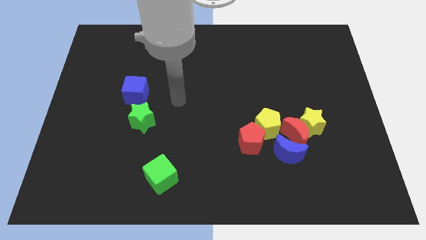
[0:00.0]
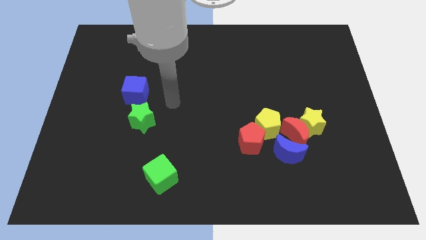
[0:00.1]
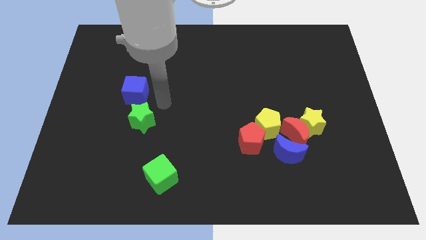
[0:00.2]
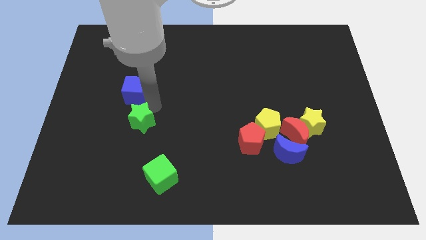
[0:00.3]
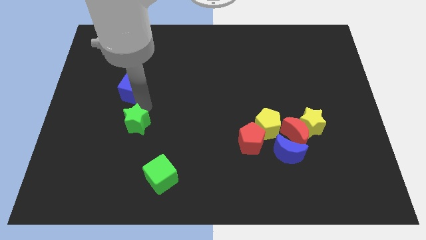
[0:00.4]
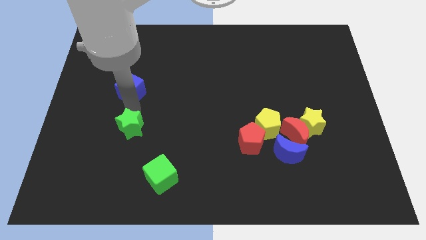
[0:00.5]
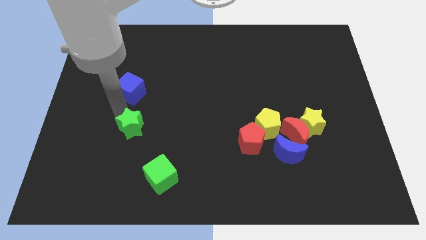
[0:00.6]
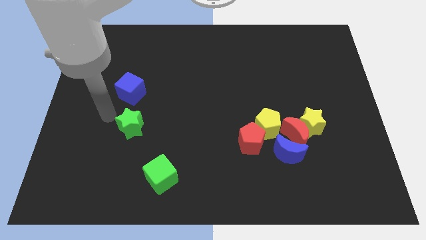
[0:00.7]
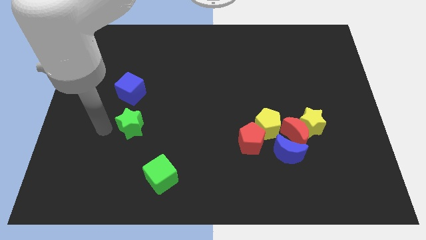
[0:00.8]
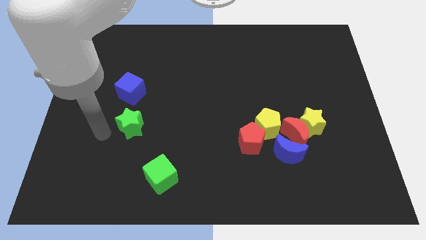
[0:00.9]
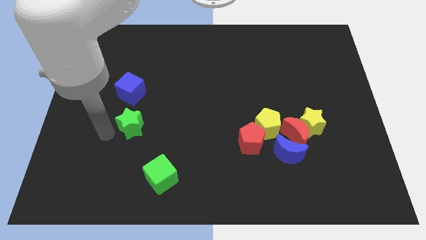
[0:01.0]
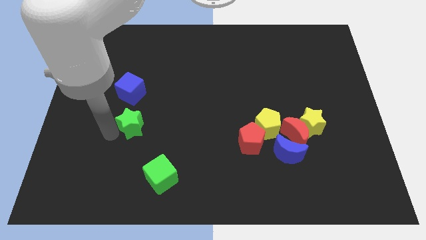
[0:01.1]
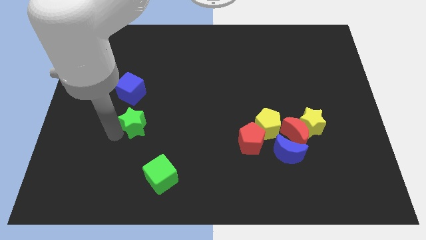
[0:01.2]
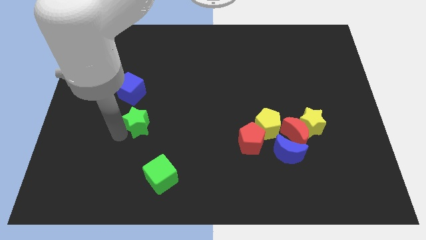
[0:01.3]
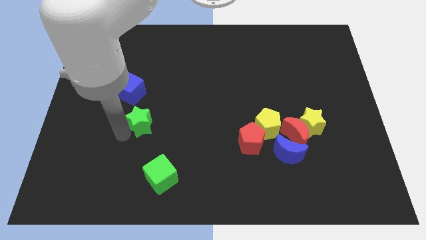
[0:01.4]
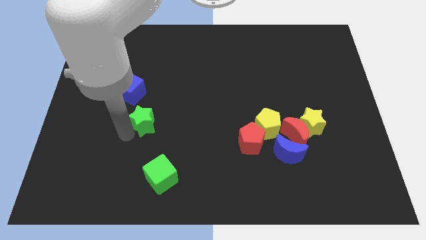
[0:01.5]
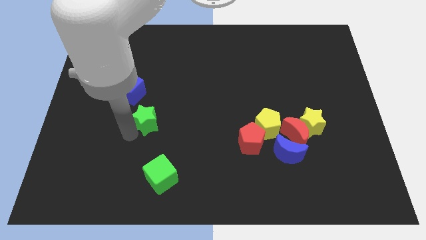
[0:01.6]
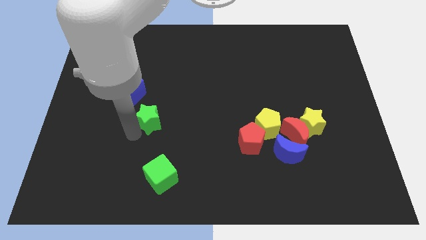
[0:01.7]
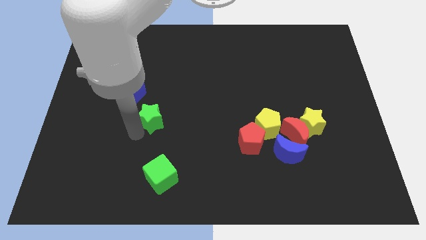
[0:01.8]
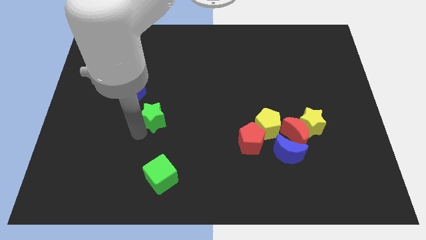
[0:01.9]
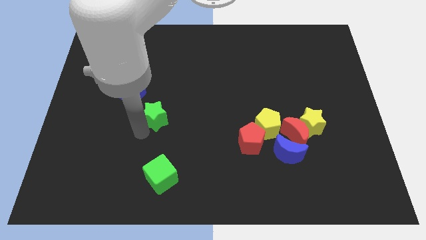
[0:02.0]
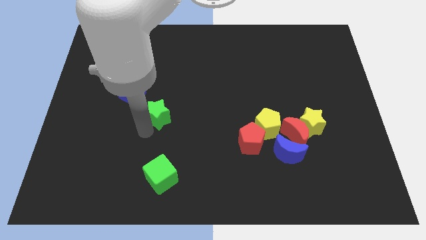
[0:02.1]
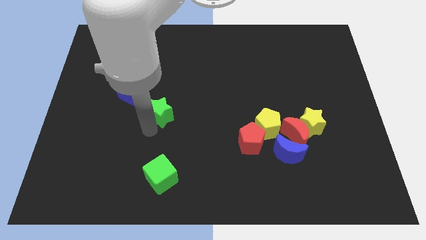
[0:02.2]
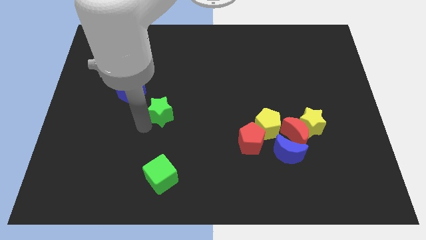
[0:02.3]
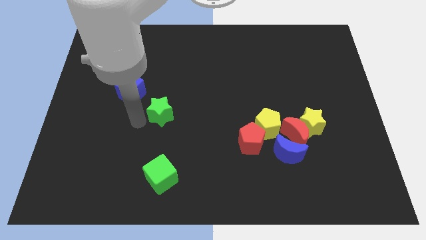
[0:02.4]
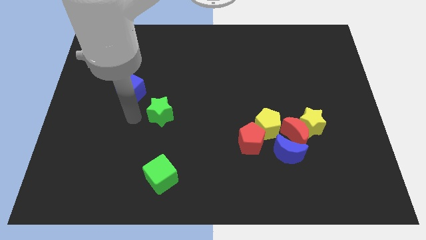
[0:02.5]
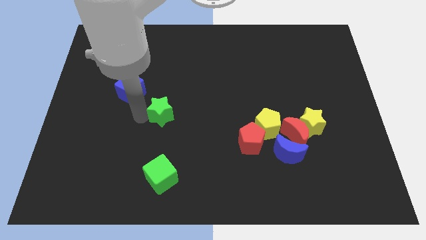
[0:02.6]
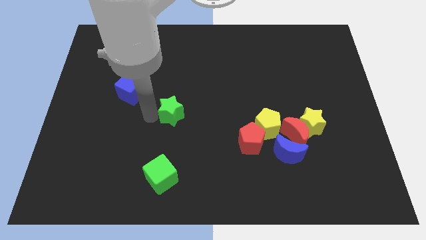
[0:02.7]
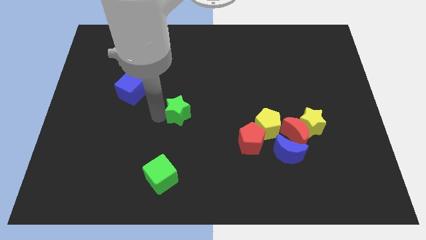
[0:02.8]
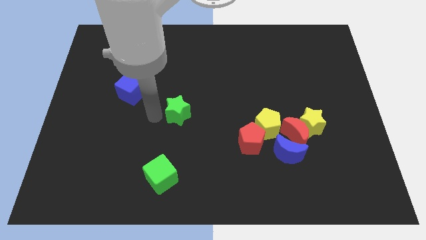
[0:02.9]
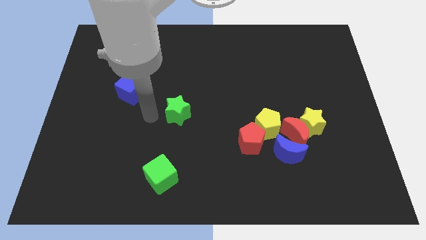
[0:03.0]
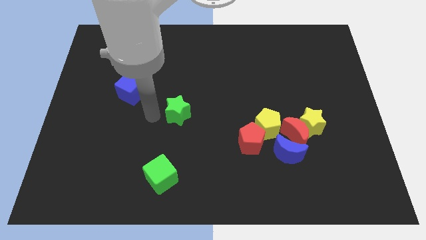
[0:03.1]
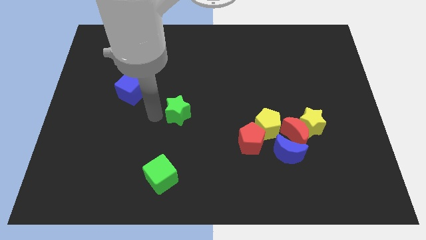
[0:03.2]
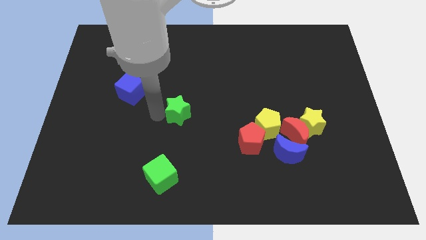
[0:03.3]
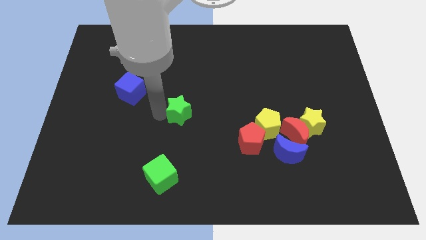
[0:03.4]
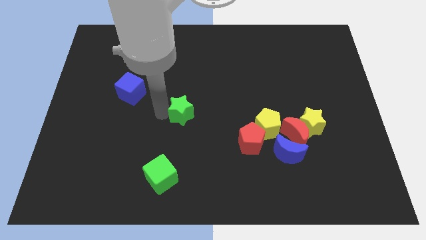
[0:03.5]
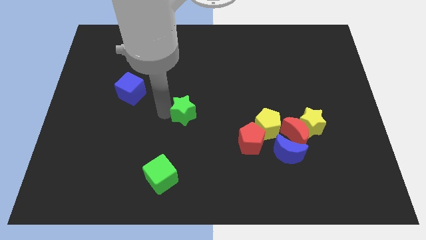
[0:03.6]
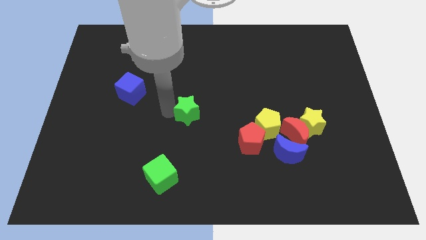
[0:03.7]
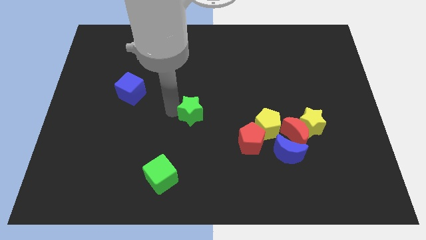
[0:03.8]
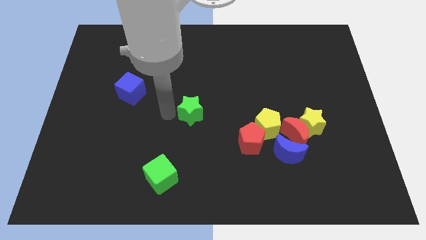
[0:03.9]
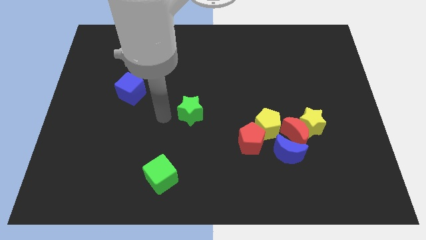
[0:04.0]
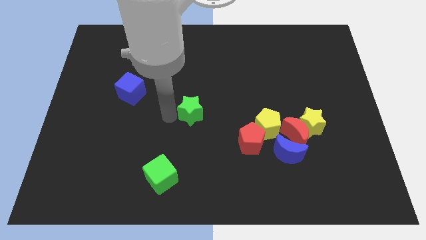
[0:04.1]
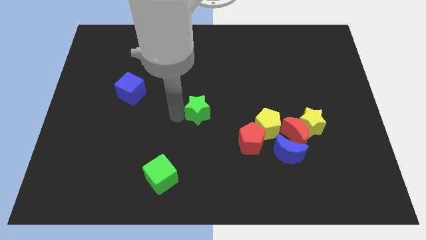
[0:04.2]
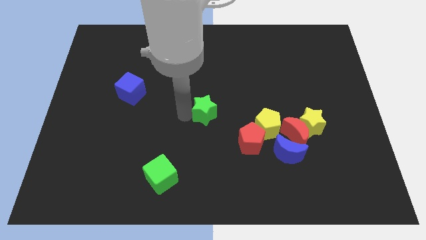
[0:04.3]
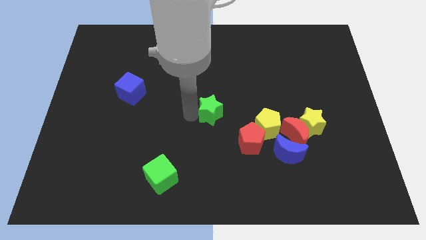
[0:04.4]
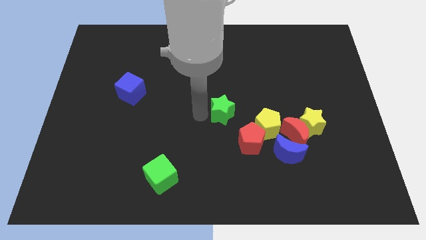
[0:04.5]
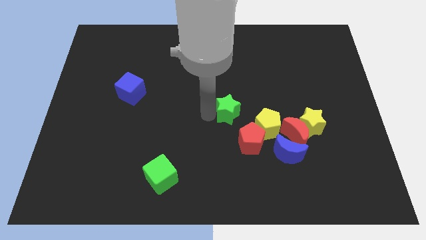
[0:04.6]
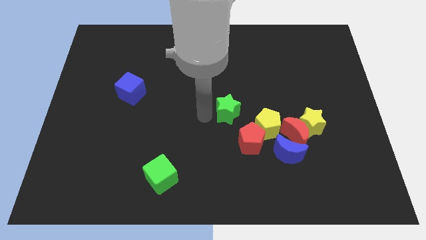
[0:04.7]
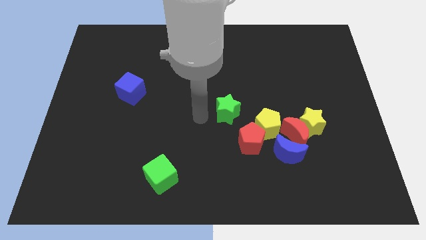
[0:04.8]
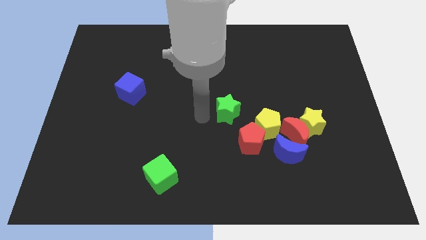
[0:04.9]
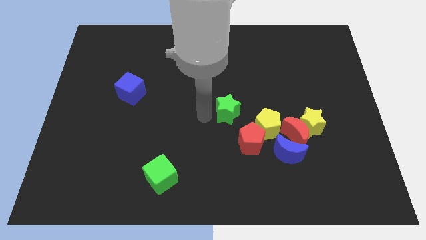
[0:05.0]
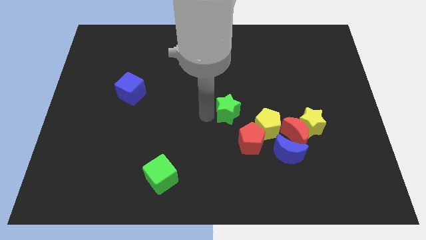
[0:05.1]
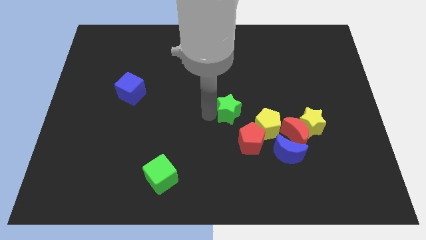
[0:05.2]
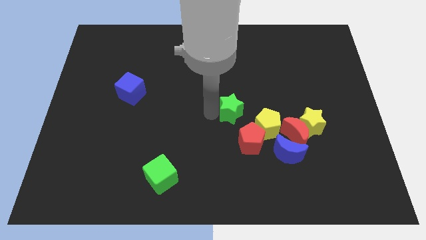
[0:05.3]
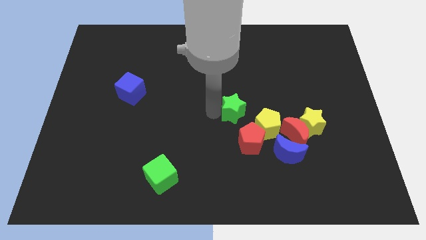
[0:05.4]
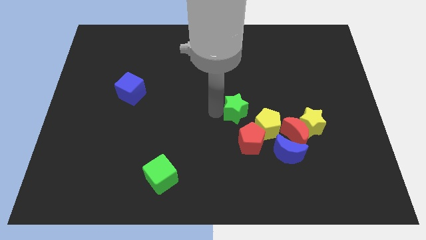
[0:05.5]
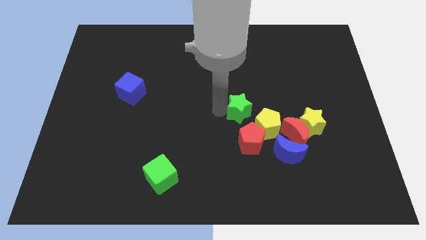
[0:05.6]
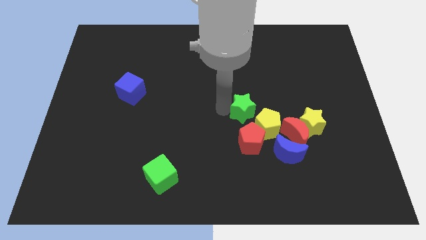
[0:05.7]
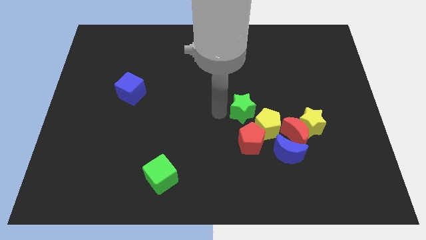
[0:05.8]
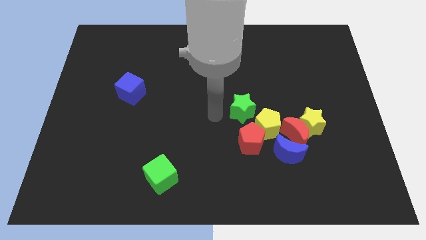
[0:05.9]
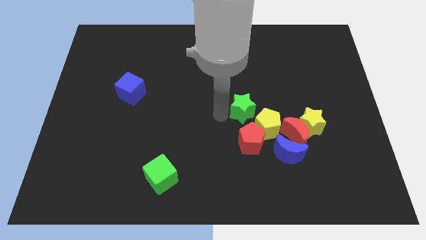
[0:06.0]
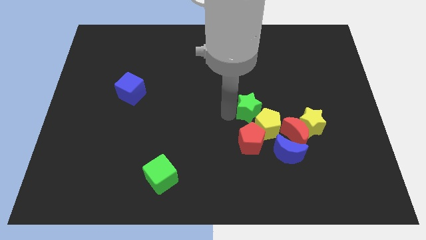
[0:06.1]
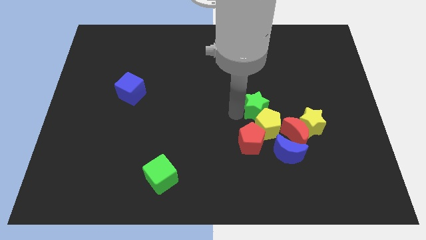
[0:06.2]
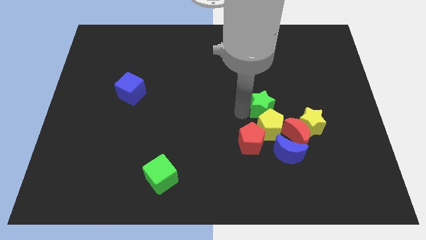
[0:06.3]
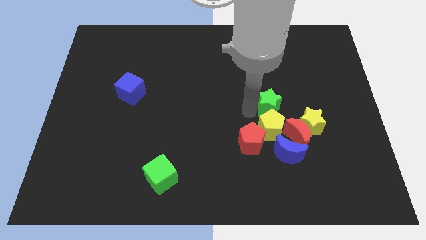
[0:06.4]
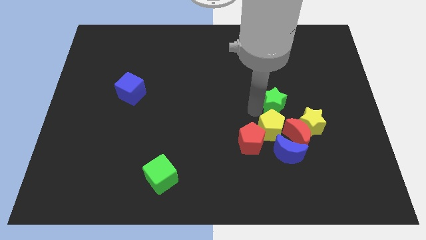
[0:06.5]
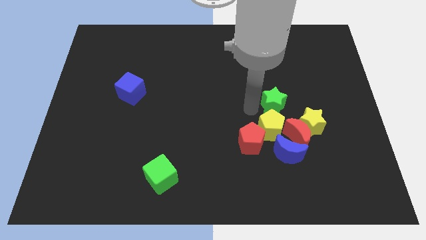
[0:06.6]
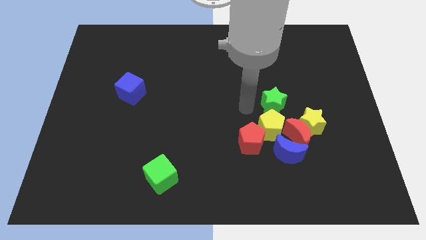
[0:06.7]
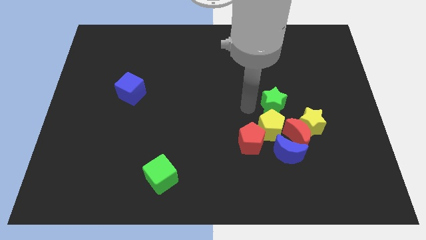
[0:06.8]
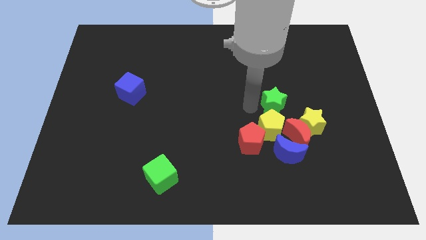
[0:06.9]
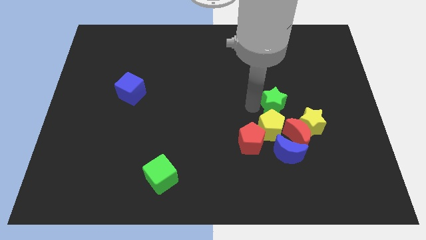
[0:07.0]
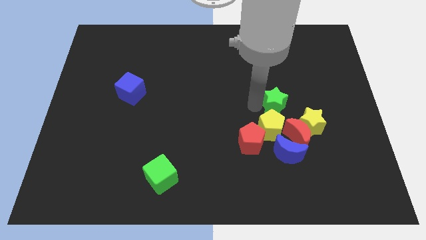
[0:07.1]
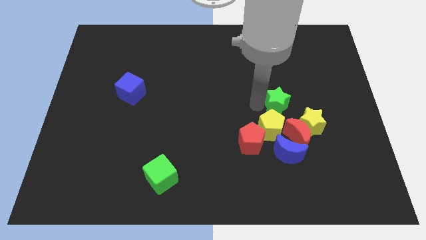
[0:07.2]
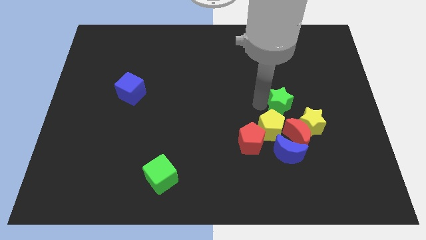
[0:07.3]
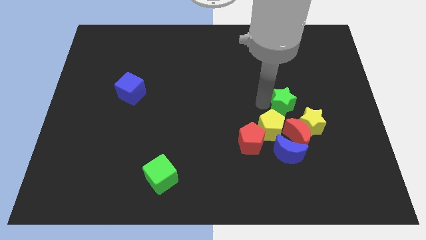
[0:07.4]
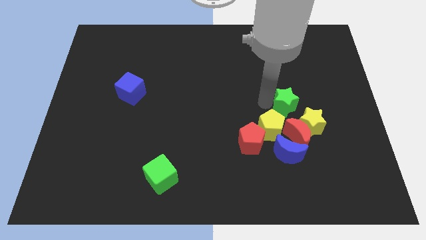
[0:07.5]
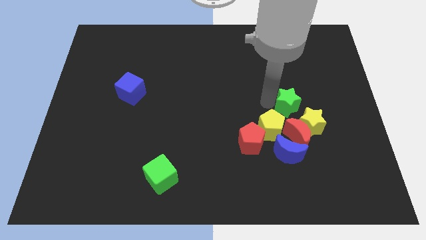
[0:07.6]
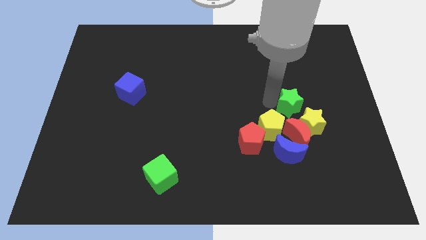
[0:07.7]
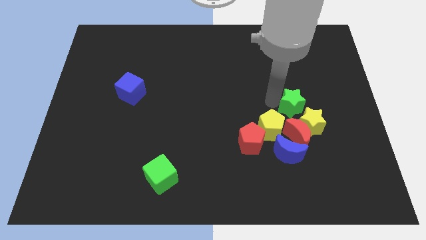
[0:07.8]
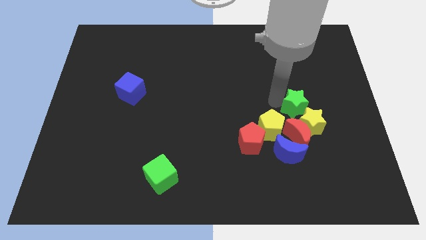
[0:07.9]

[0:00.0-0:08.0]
slide the green star towards the yellow star

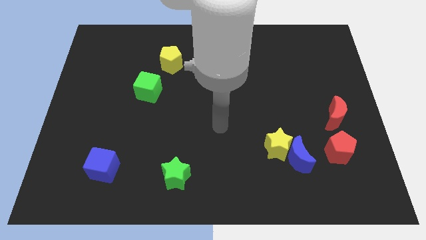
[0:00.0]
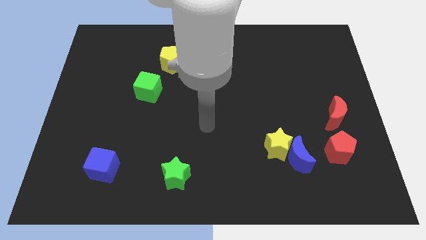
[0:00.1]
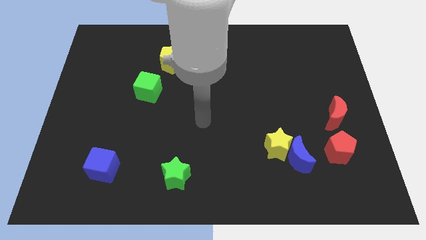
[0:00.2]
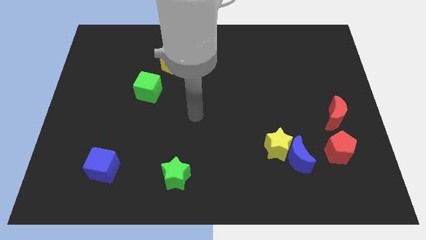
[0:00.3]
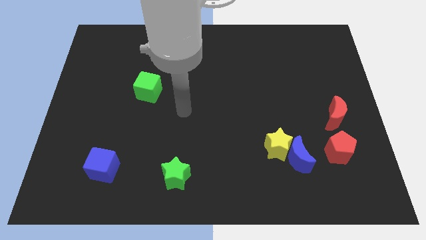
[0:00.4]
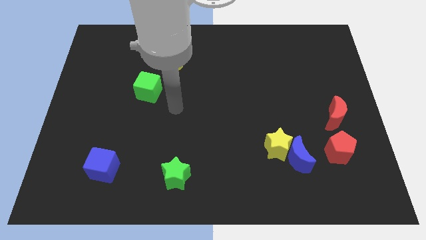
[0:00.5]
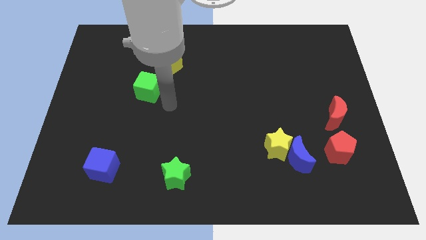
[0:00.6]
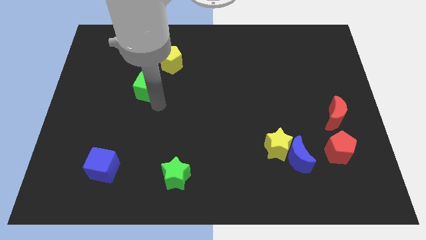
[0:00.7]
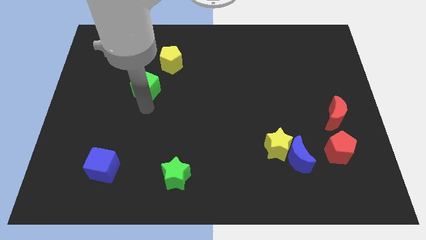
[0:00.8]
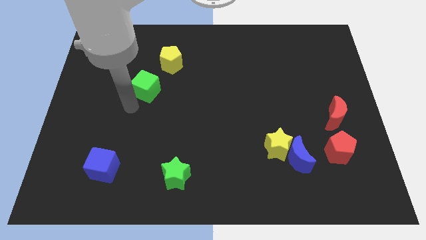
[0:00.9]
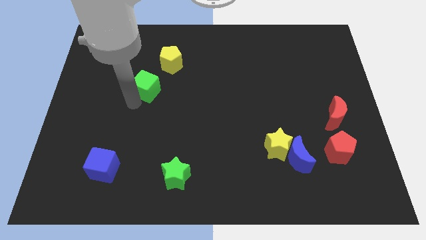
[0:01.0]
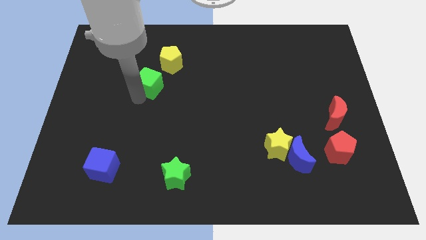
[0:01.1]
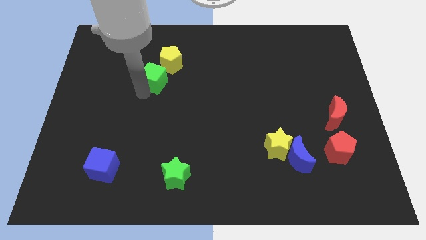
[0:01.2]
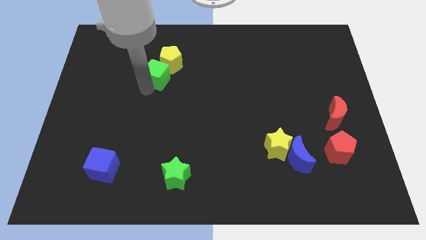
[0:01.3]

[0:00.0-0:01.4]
slide the green cube towards the yellow pentagon
